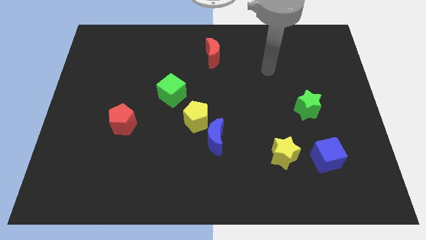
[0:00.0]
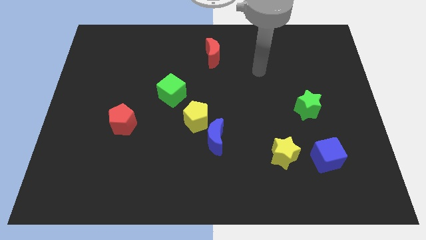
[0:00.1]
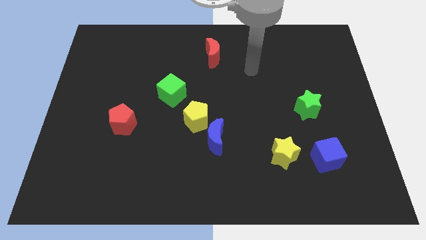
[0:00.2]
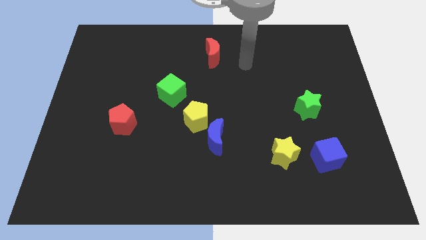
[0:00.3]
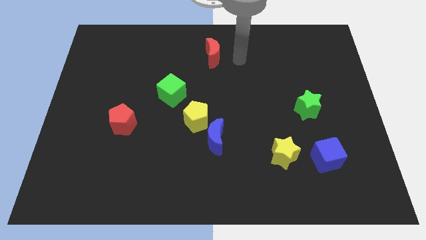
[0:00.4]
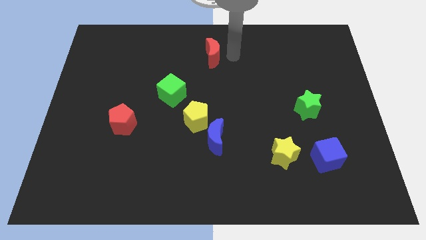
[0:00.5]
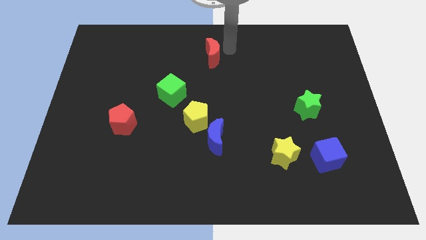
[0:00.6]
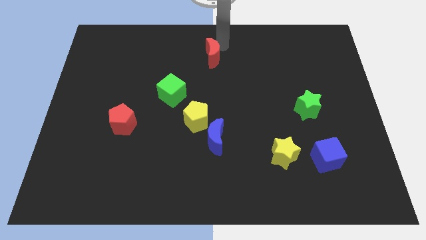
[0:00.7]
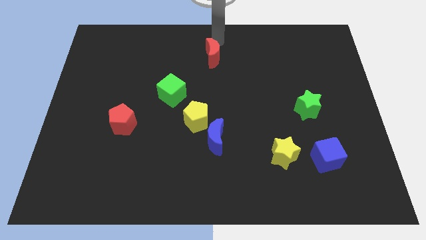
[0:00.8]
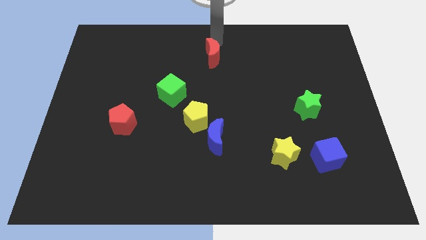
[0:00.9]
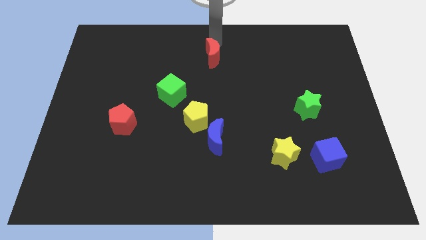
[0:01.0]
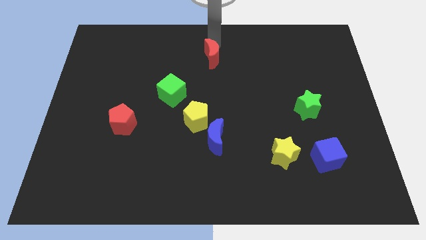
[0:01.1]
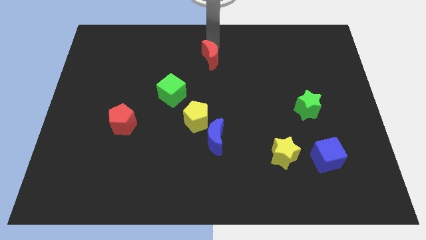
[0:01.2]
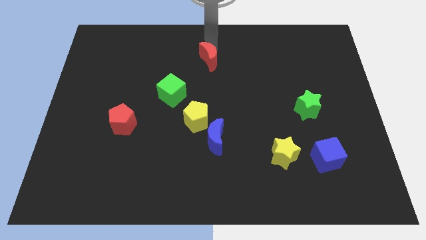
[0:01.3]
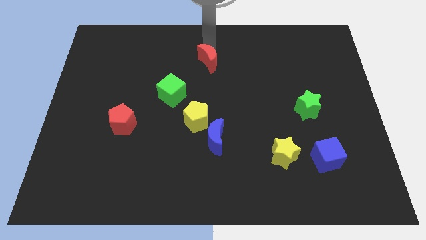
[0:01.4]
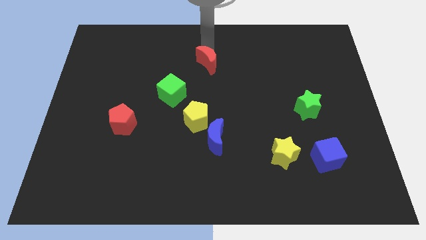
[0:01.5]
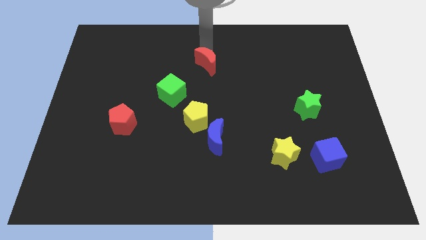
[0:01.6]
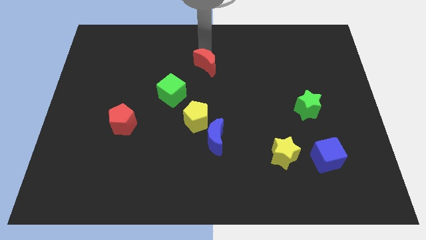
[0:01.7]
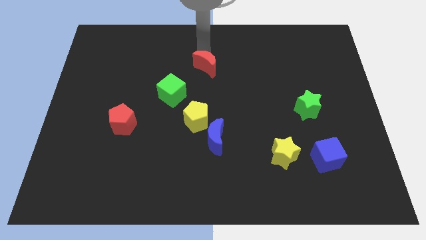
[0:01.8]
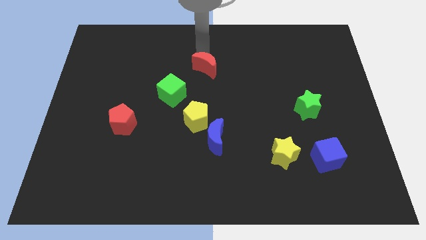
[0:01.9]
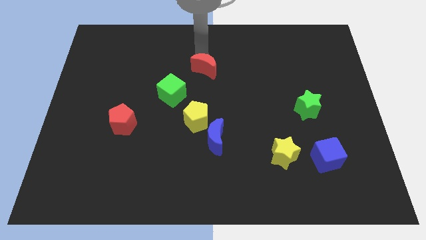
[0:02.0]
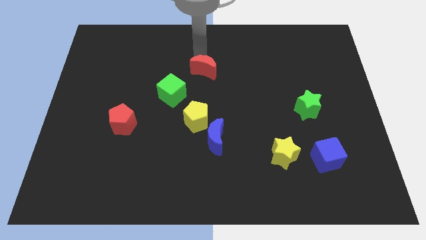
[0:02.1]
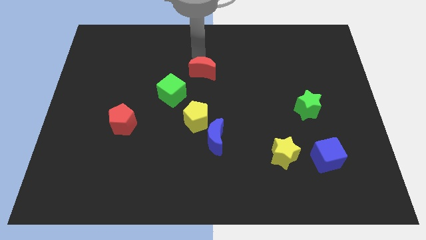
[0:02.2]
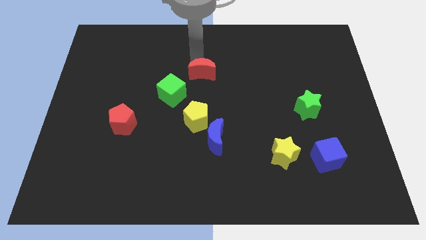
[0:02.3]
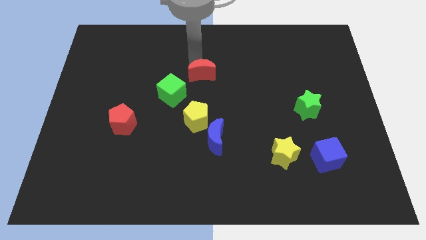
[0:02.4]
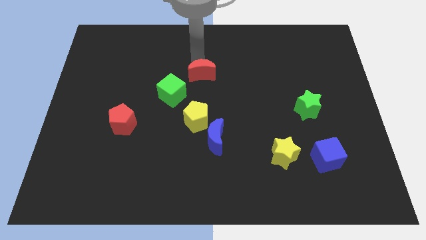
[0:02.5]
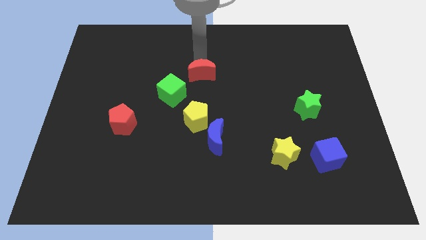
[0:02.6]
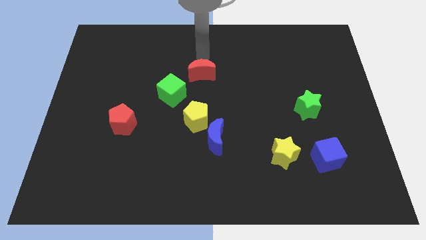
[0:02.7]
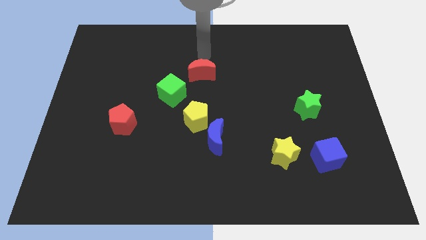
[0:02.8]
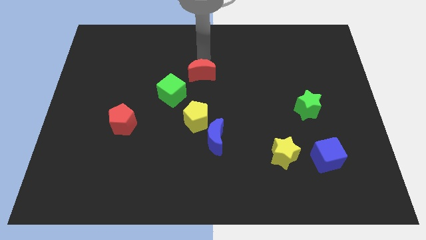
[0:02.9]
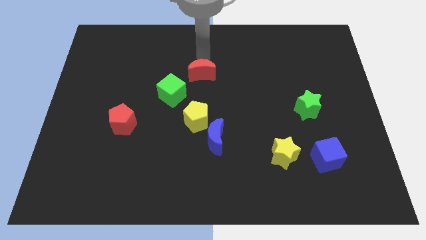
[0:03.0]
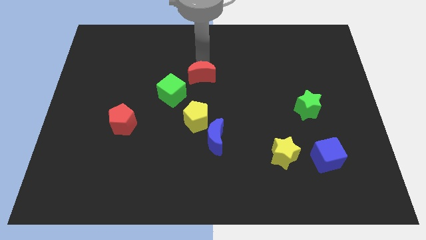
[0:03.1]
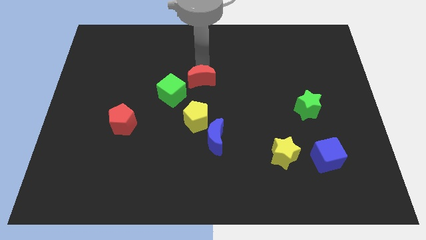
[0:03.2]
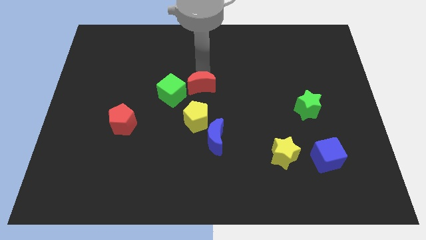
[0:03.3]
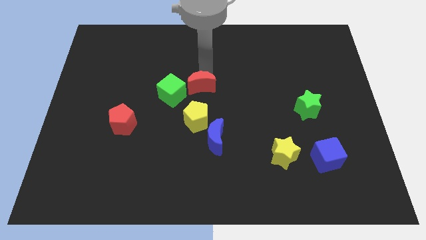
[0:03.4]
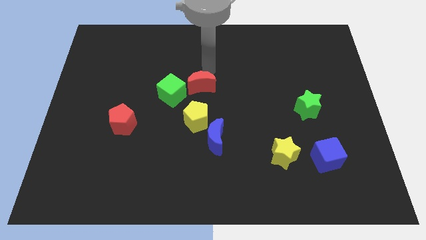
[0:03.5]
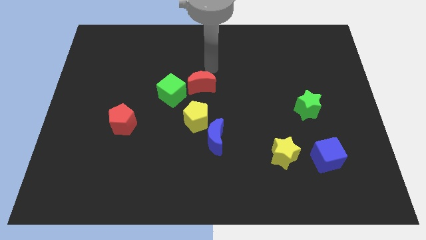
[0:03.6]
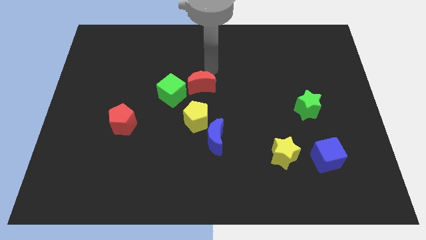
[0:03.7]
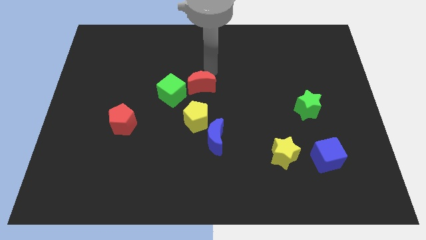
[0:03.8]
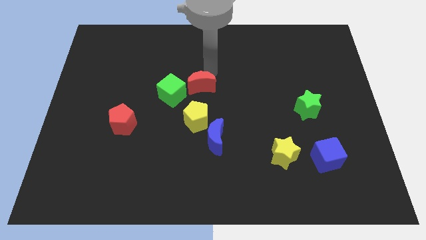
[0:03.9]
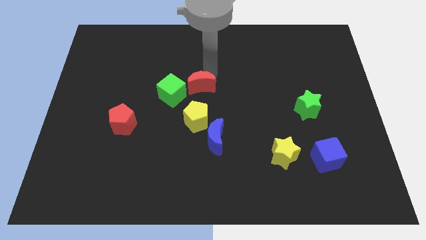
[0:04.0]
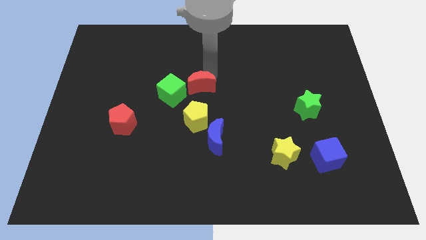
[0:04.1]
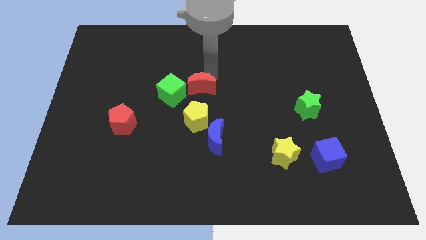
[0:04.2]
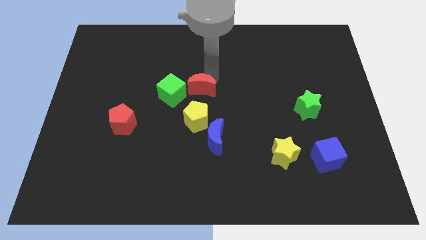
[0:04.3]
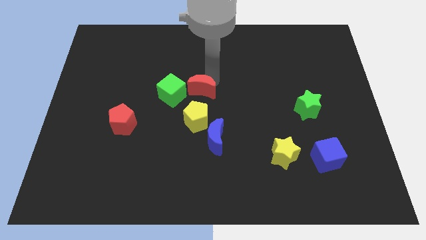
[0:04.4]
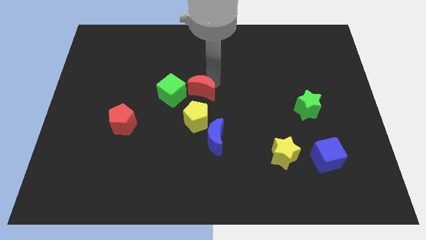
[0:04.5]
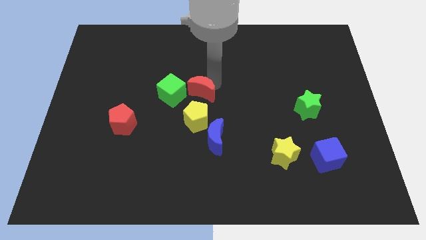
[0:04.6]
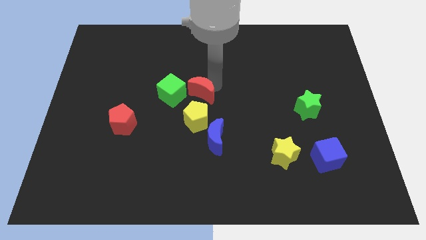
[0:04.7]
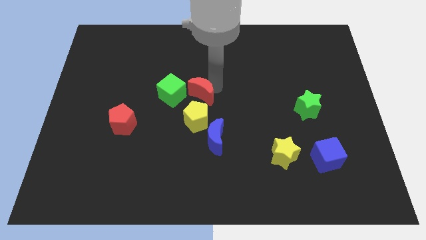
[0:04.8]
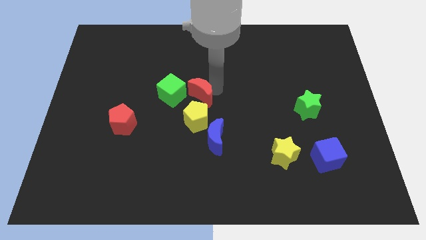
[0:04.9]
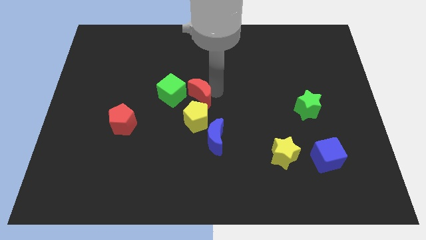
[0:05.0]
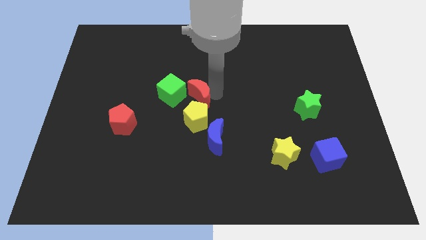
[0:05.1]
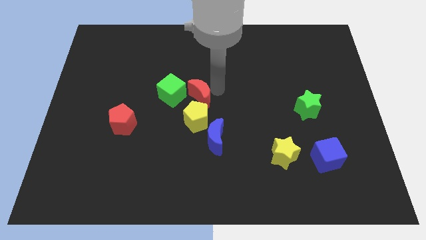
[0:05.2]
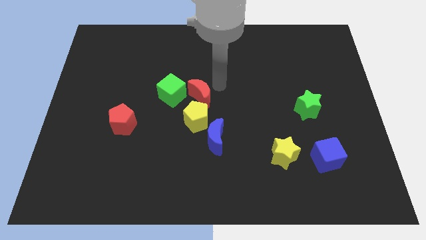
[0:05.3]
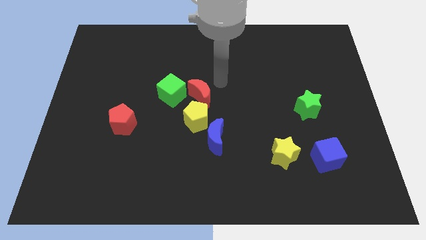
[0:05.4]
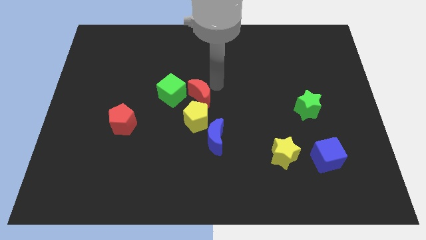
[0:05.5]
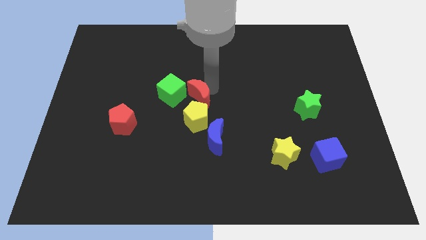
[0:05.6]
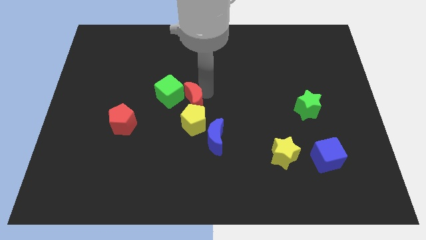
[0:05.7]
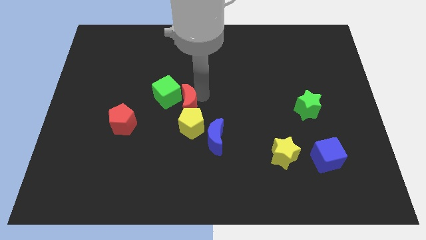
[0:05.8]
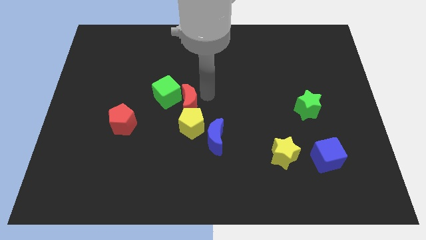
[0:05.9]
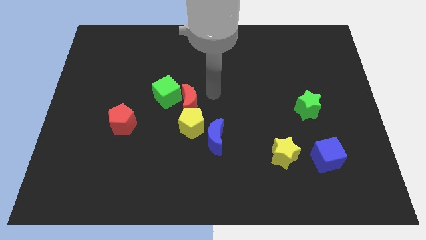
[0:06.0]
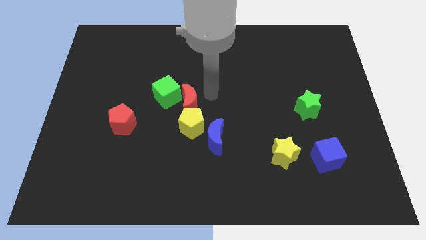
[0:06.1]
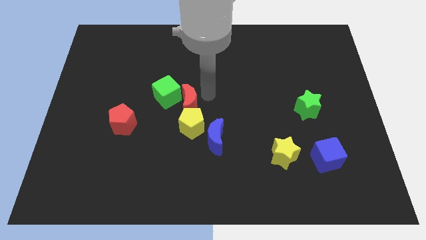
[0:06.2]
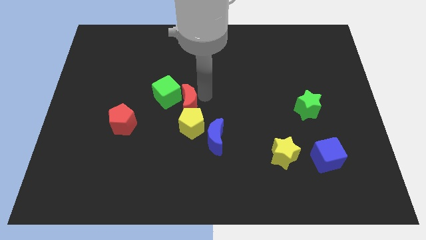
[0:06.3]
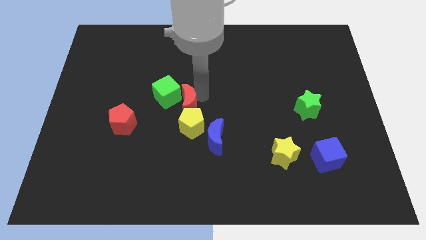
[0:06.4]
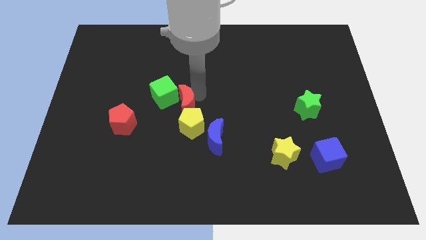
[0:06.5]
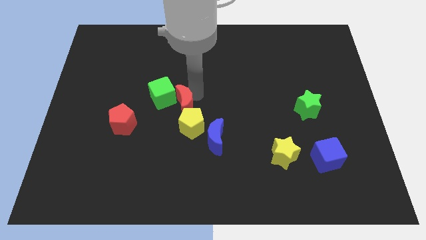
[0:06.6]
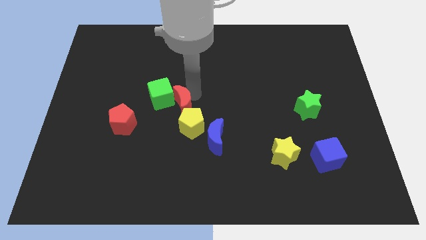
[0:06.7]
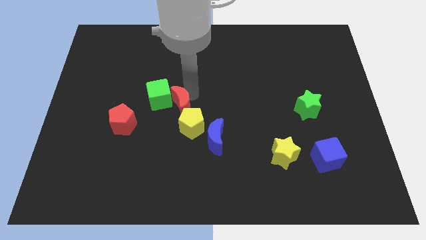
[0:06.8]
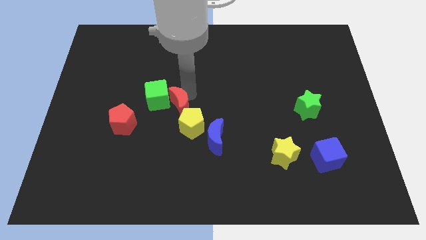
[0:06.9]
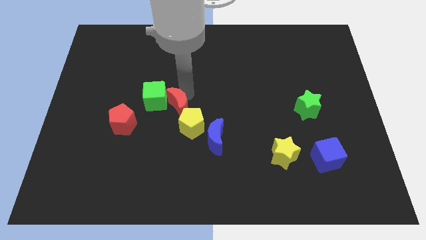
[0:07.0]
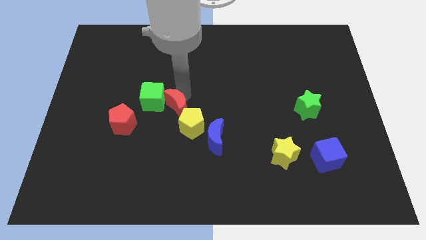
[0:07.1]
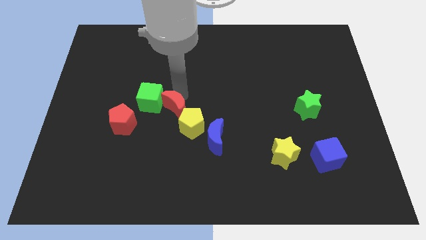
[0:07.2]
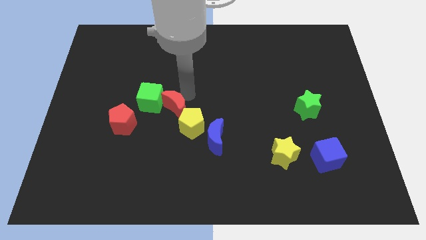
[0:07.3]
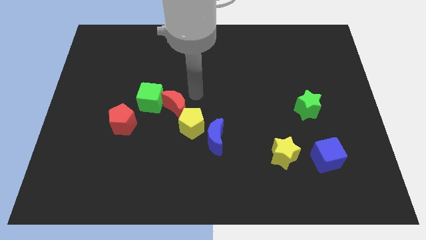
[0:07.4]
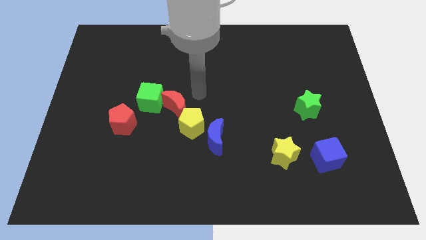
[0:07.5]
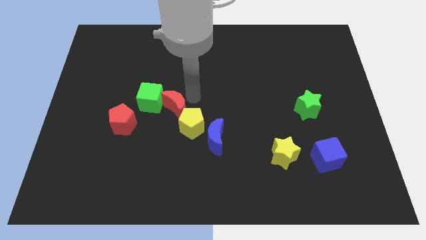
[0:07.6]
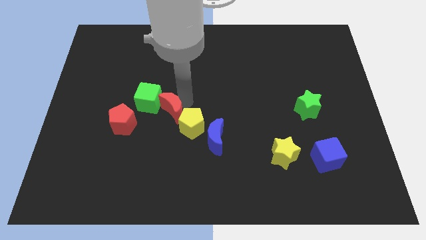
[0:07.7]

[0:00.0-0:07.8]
move the red moon to the left side of the yellow pentagon
